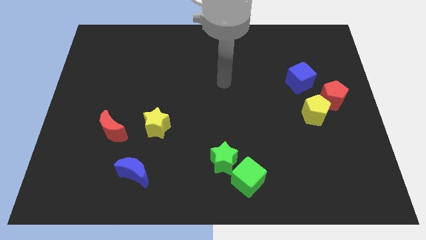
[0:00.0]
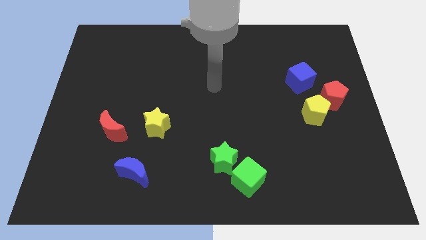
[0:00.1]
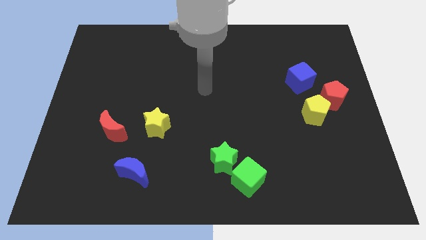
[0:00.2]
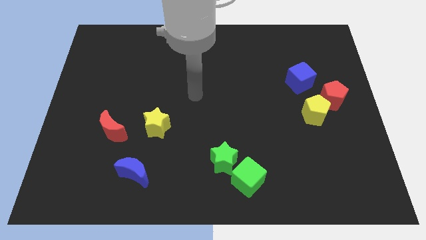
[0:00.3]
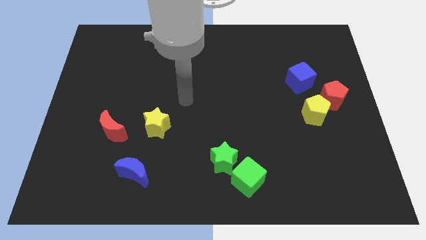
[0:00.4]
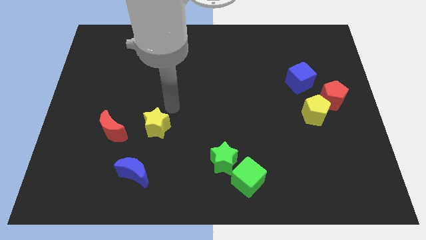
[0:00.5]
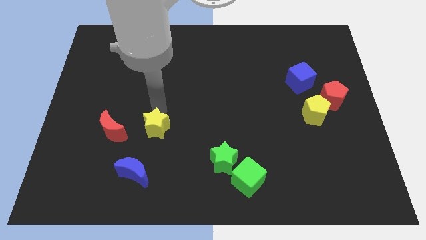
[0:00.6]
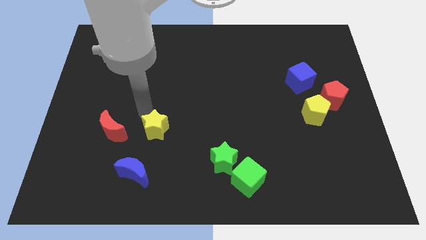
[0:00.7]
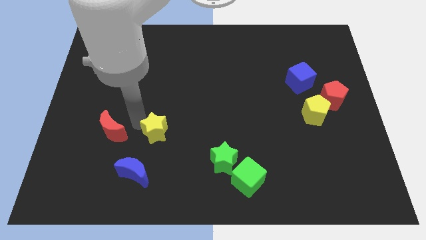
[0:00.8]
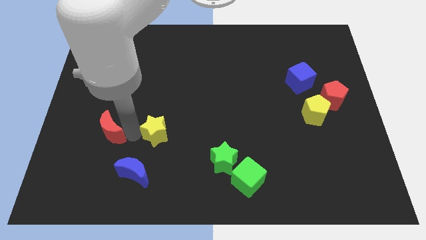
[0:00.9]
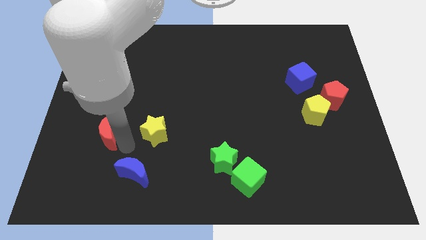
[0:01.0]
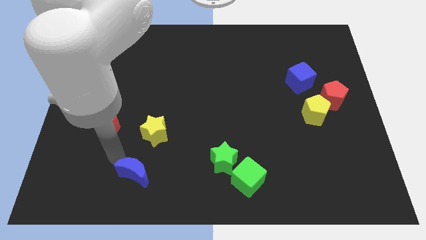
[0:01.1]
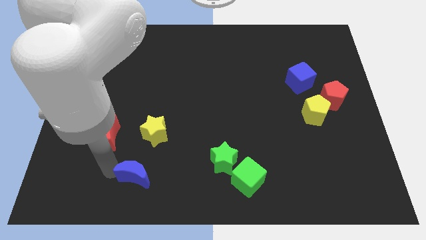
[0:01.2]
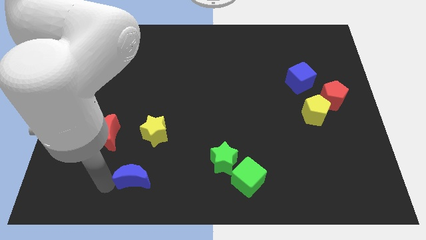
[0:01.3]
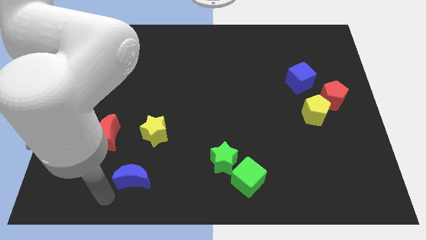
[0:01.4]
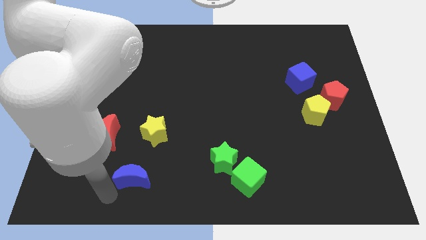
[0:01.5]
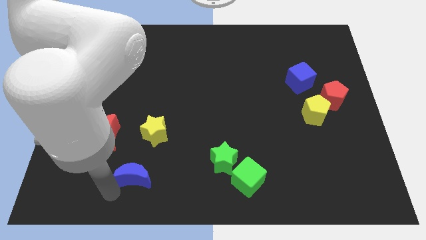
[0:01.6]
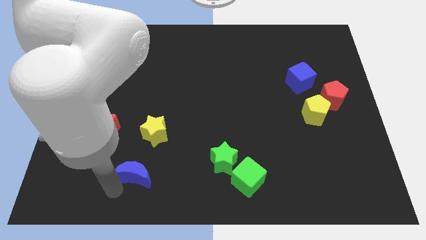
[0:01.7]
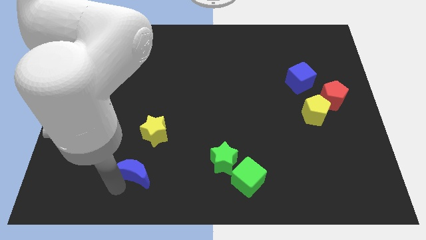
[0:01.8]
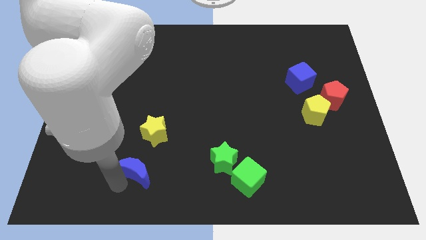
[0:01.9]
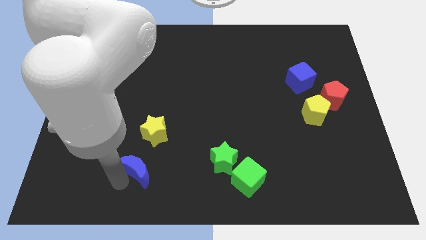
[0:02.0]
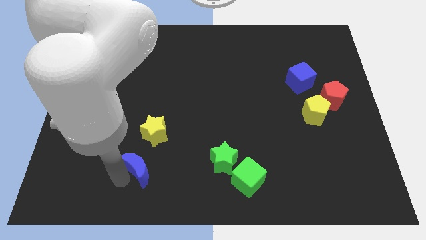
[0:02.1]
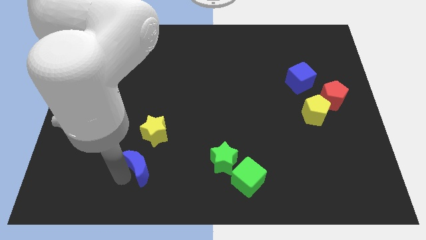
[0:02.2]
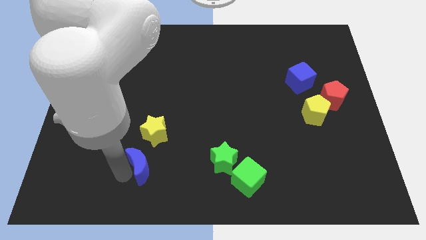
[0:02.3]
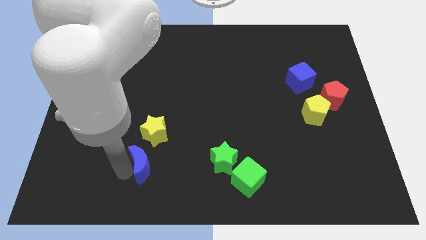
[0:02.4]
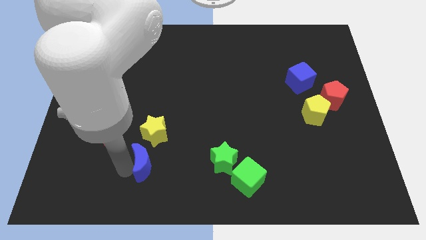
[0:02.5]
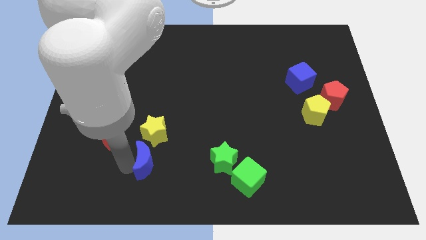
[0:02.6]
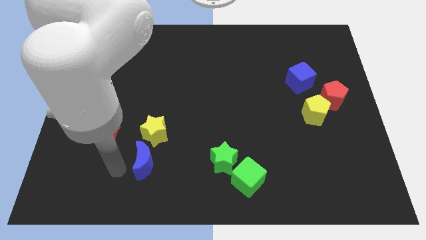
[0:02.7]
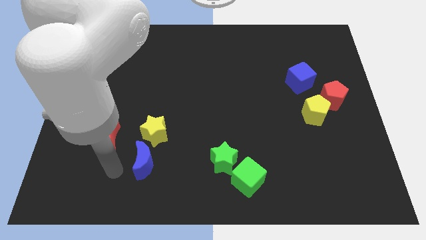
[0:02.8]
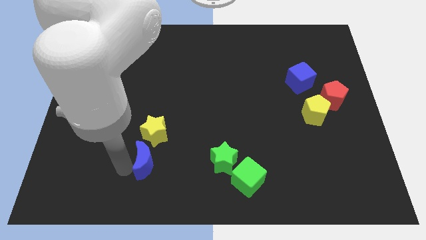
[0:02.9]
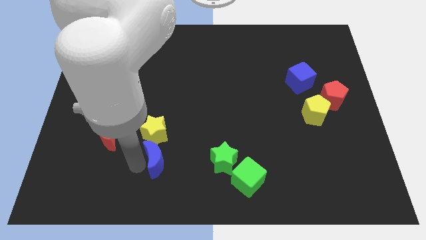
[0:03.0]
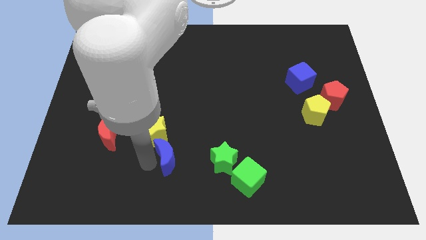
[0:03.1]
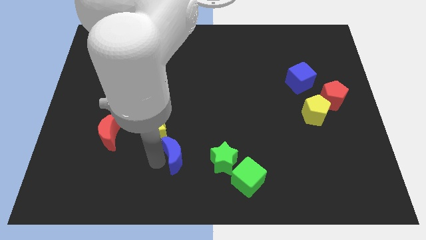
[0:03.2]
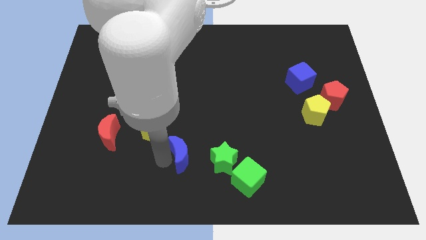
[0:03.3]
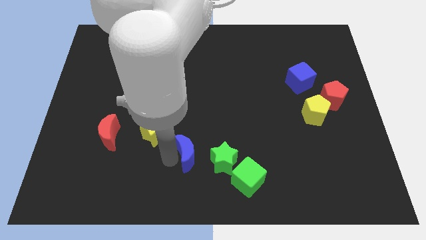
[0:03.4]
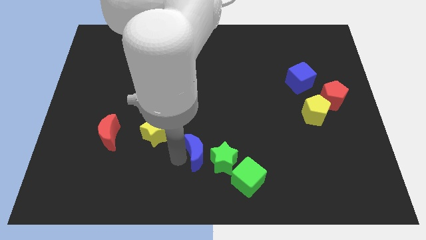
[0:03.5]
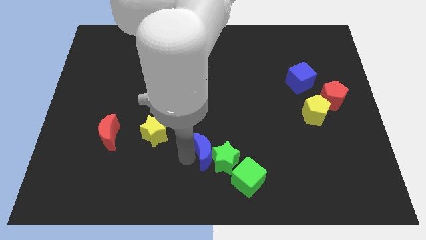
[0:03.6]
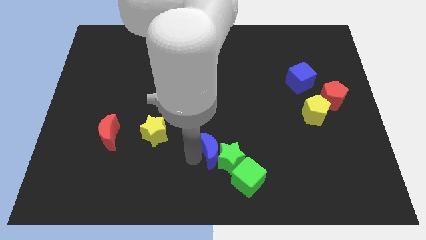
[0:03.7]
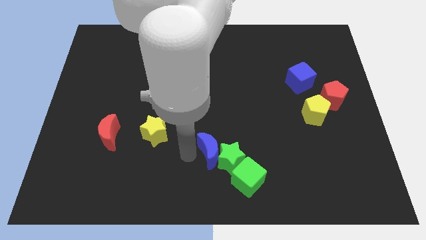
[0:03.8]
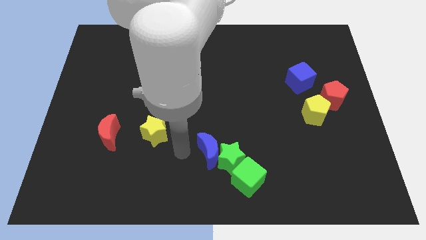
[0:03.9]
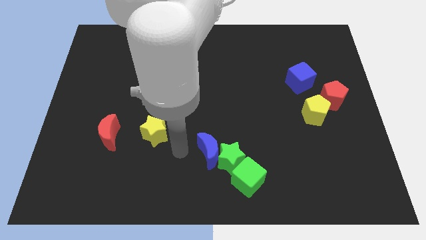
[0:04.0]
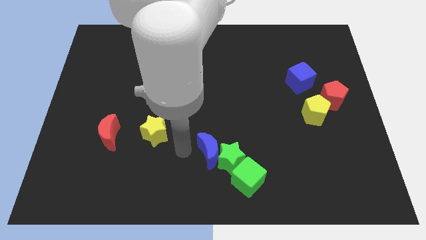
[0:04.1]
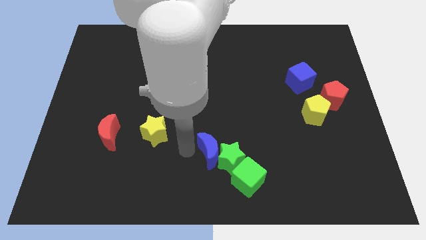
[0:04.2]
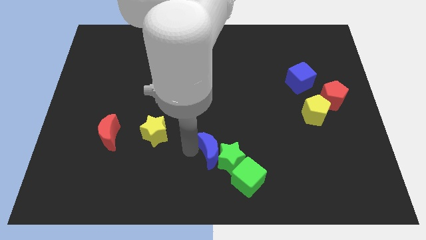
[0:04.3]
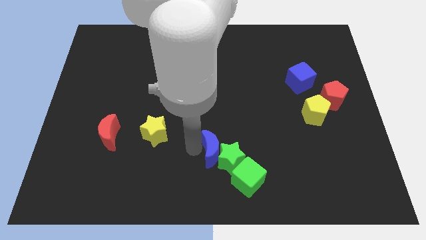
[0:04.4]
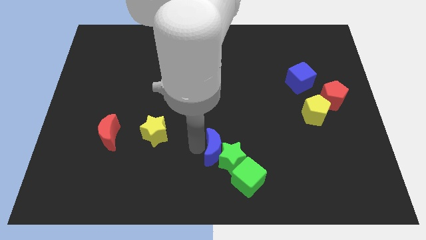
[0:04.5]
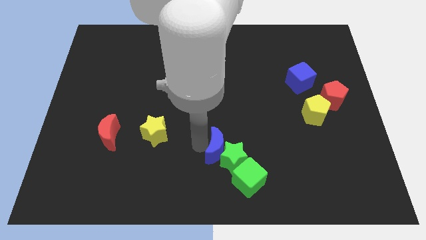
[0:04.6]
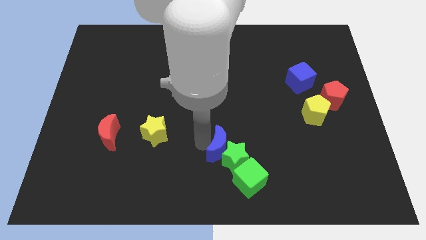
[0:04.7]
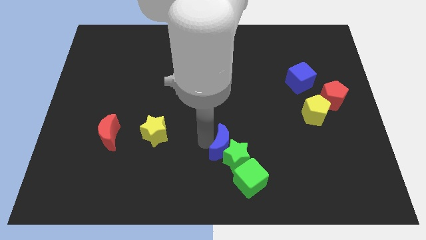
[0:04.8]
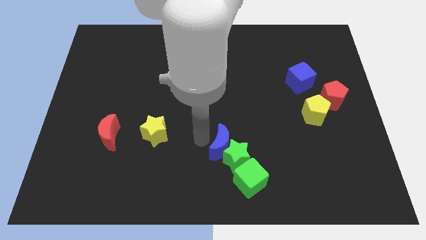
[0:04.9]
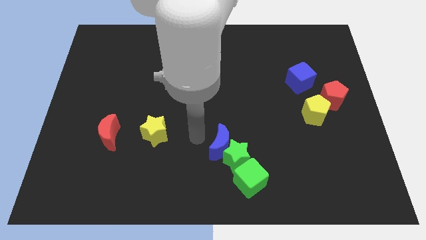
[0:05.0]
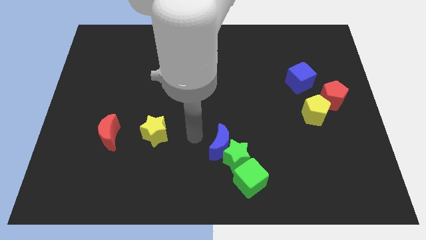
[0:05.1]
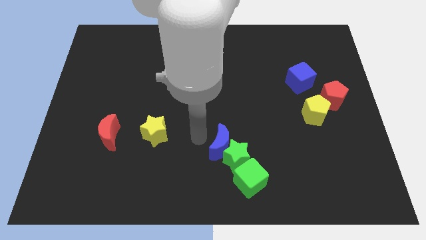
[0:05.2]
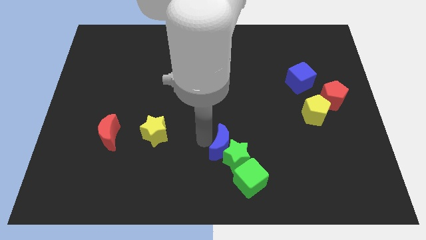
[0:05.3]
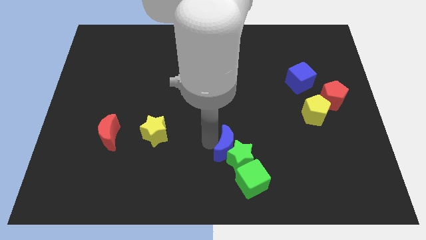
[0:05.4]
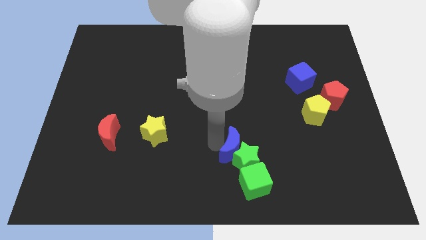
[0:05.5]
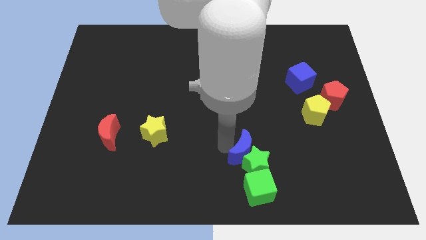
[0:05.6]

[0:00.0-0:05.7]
push the blue moon right

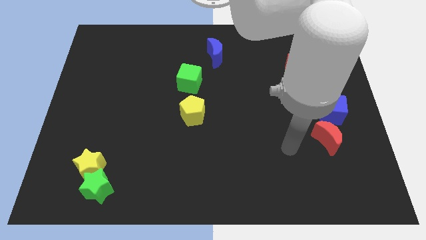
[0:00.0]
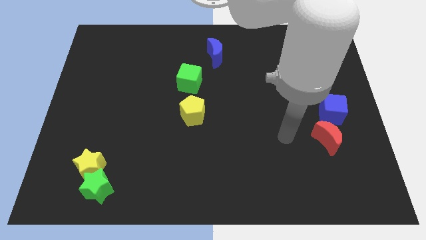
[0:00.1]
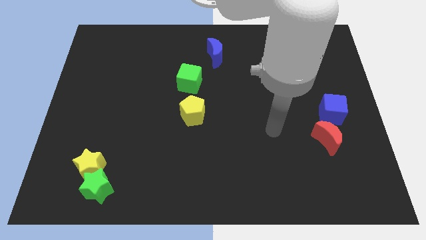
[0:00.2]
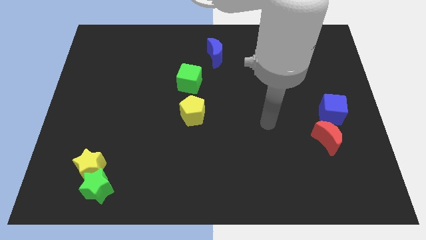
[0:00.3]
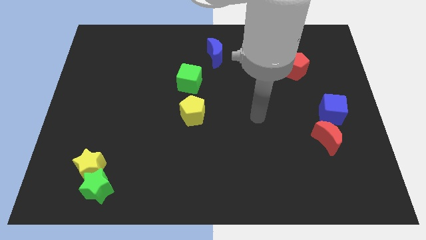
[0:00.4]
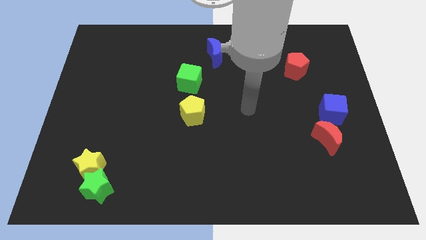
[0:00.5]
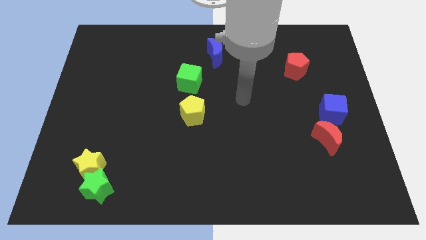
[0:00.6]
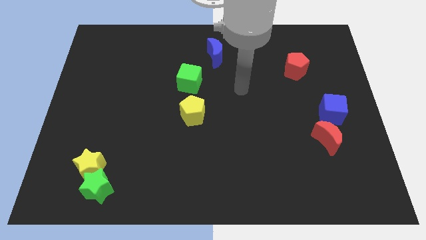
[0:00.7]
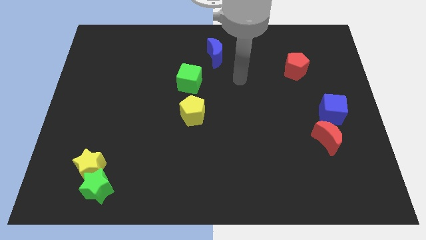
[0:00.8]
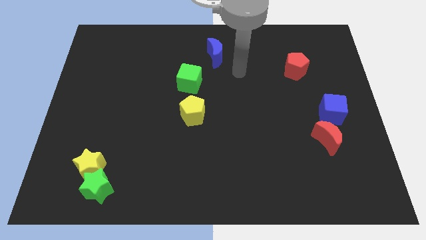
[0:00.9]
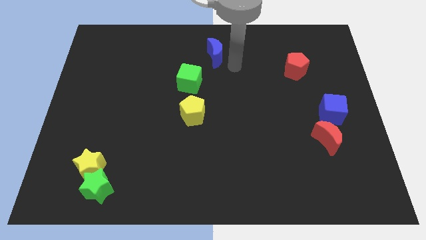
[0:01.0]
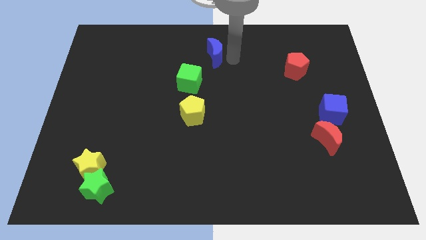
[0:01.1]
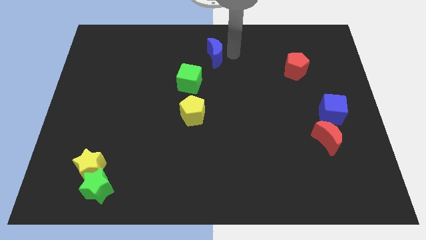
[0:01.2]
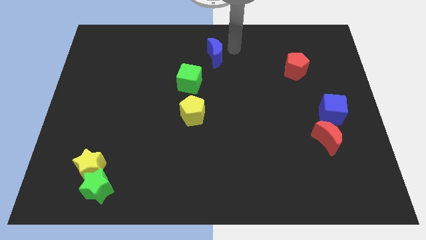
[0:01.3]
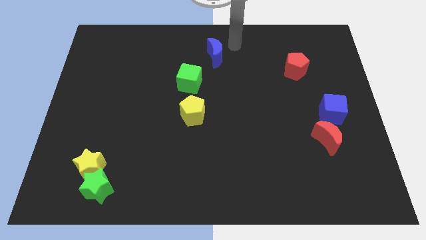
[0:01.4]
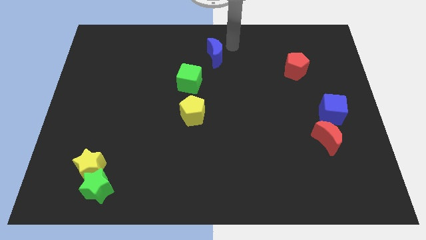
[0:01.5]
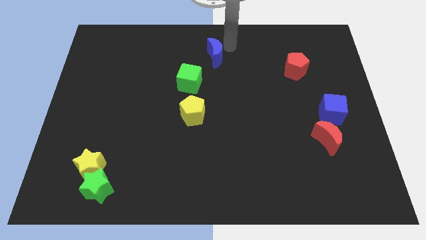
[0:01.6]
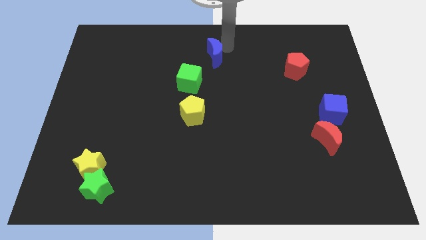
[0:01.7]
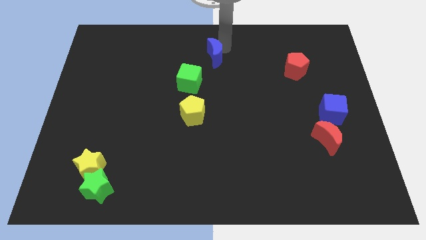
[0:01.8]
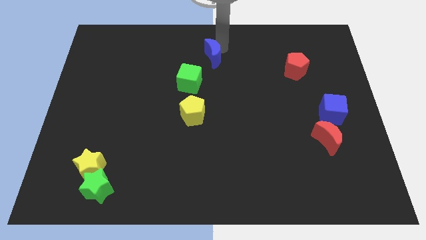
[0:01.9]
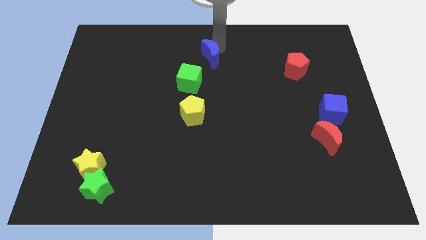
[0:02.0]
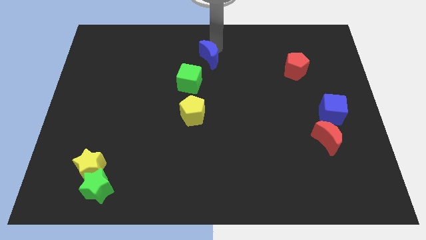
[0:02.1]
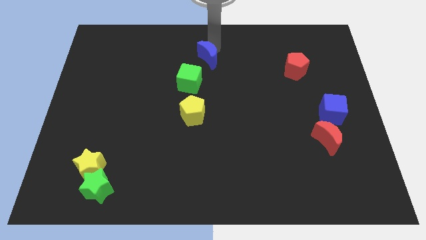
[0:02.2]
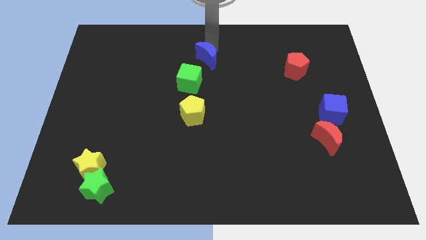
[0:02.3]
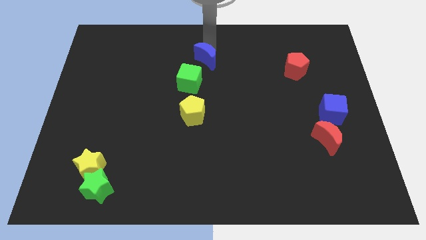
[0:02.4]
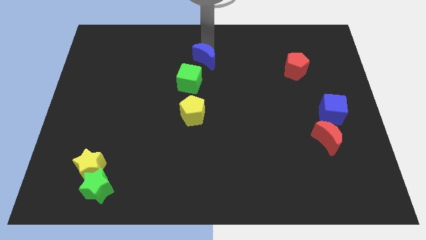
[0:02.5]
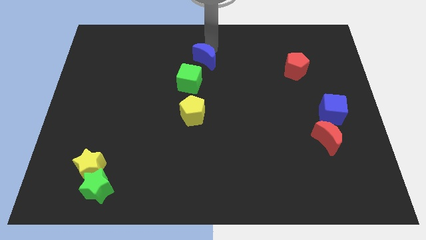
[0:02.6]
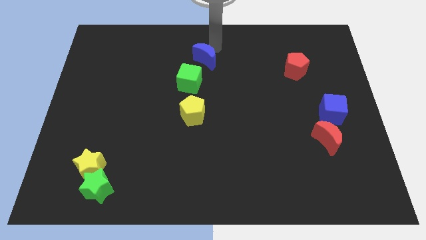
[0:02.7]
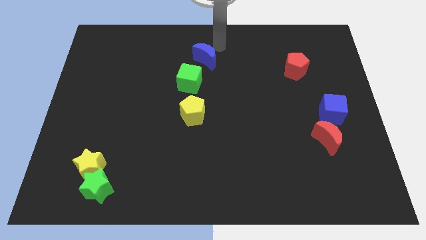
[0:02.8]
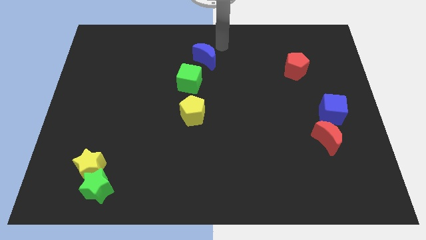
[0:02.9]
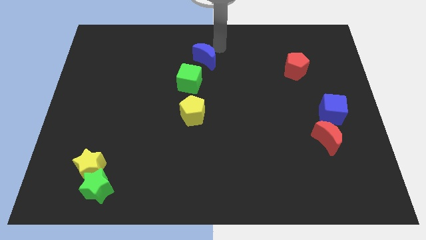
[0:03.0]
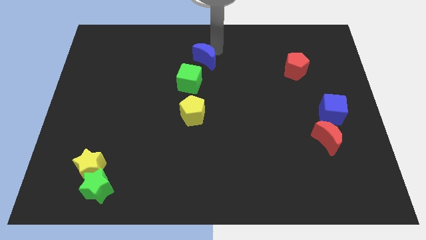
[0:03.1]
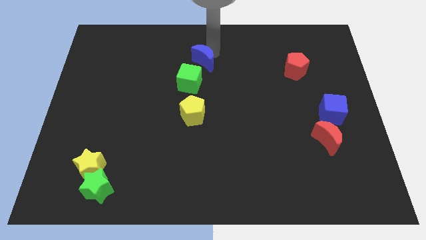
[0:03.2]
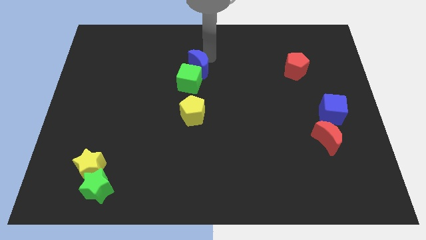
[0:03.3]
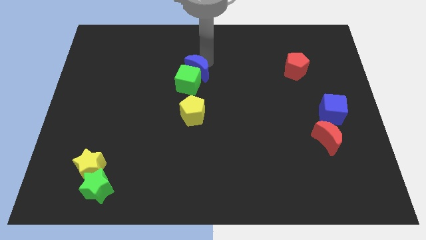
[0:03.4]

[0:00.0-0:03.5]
slide the blue moon downwards and left a bit
